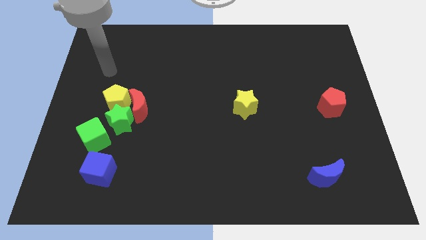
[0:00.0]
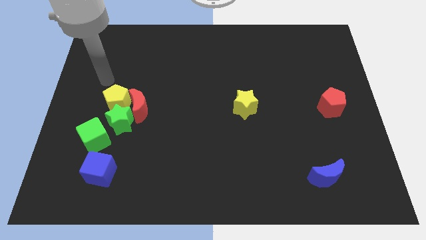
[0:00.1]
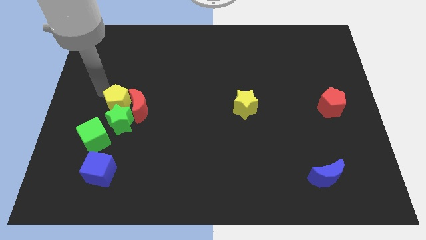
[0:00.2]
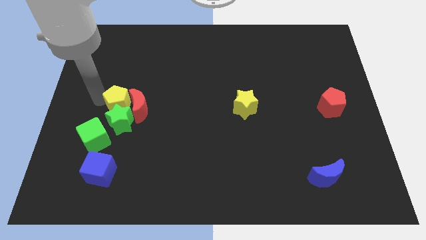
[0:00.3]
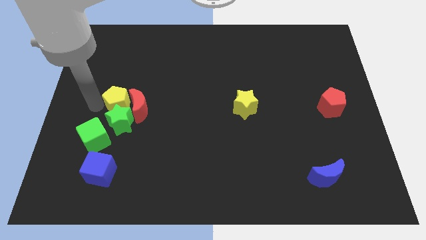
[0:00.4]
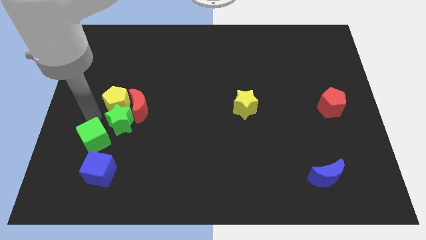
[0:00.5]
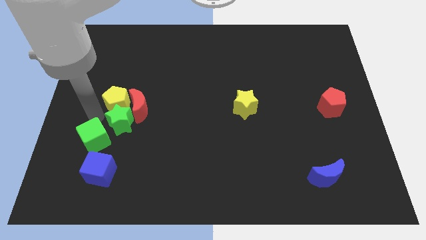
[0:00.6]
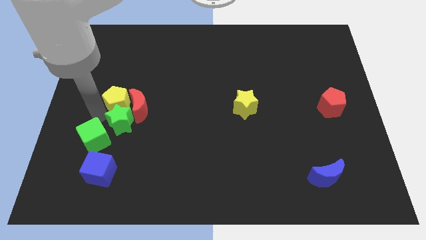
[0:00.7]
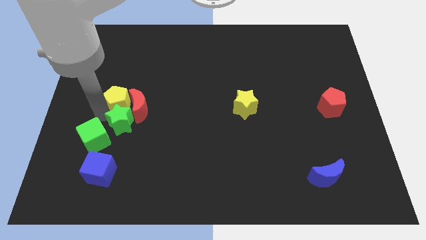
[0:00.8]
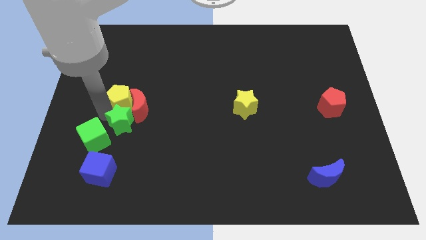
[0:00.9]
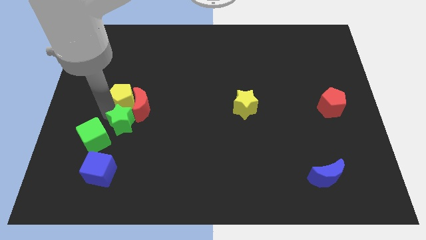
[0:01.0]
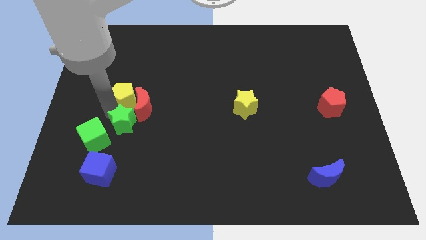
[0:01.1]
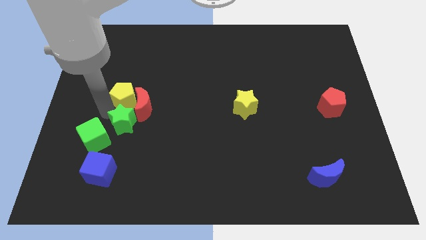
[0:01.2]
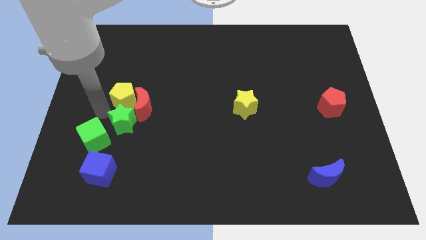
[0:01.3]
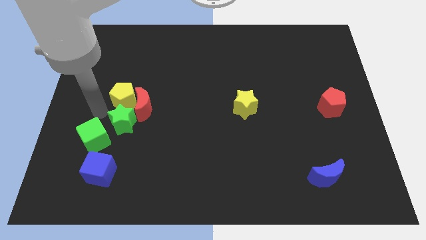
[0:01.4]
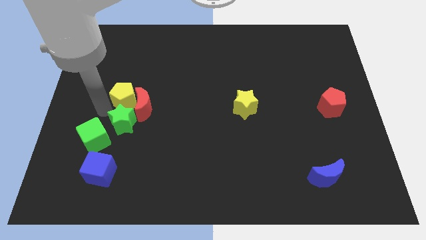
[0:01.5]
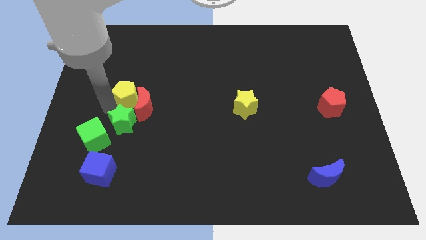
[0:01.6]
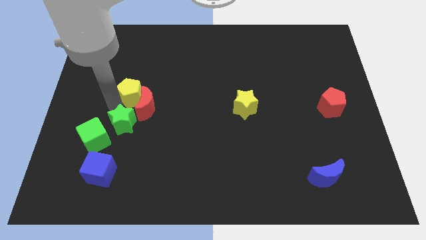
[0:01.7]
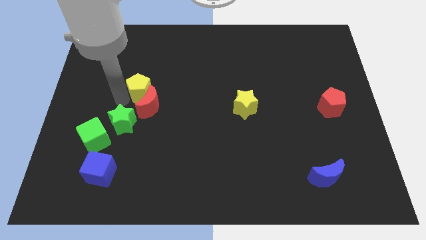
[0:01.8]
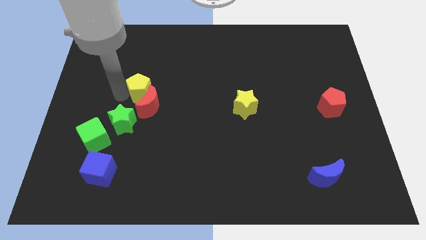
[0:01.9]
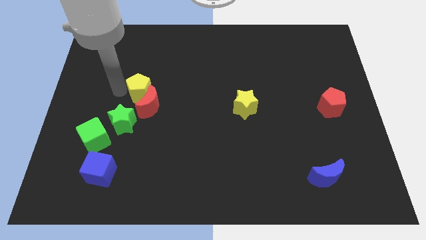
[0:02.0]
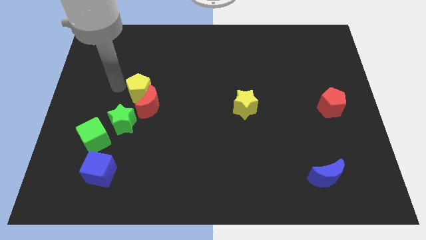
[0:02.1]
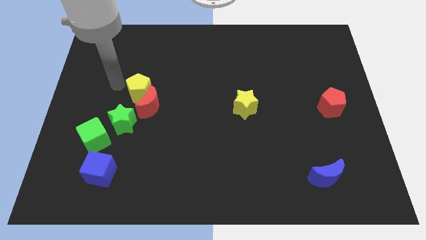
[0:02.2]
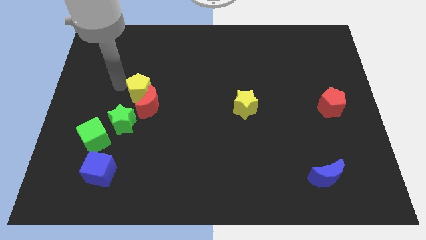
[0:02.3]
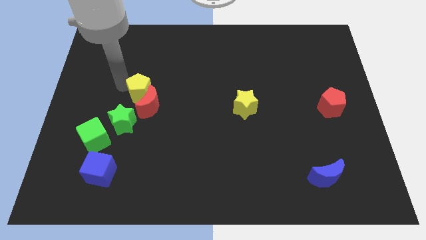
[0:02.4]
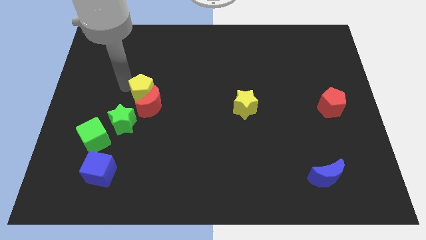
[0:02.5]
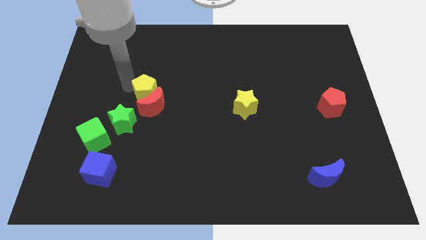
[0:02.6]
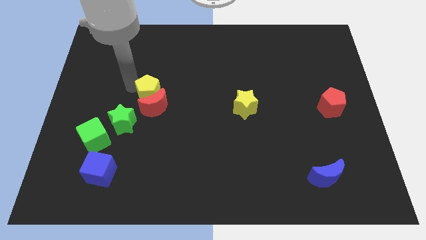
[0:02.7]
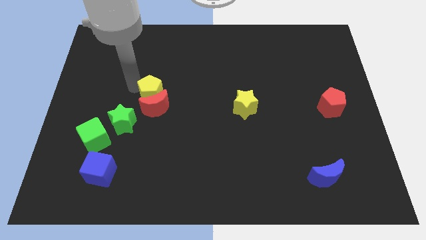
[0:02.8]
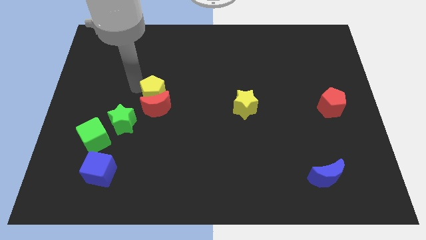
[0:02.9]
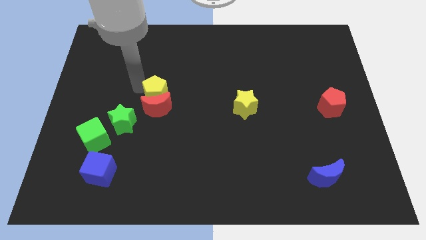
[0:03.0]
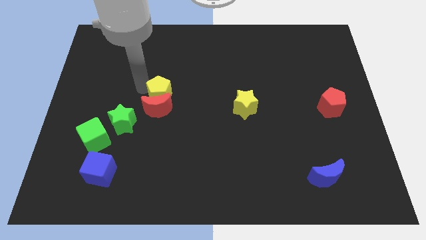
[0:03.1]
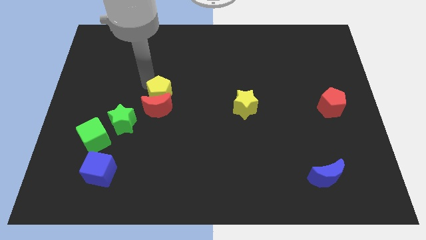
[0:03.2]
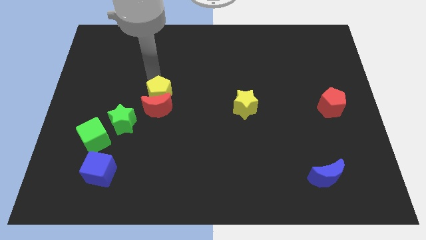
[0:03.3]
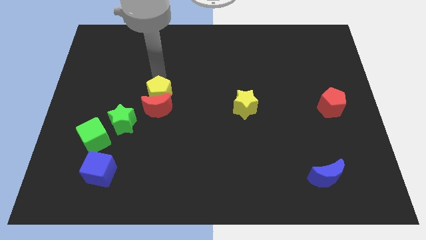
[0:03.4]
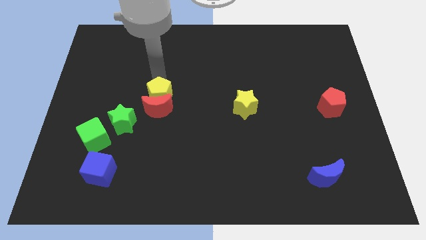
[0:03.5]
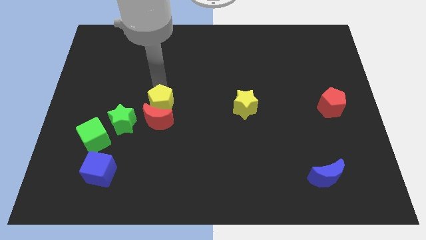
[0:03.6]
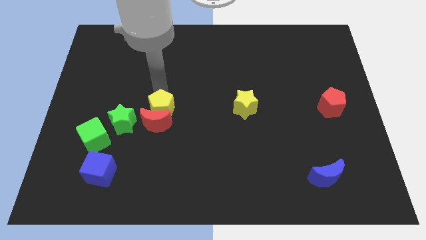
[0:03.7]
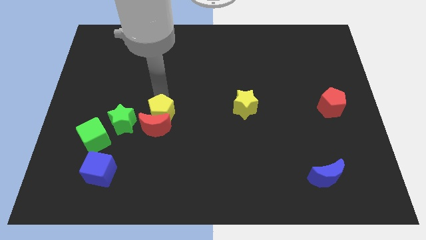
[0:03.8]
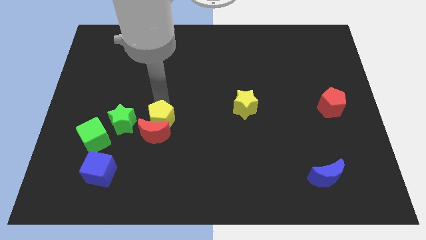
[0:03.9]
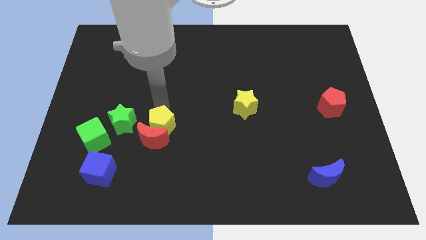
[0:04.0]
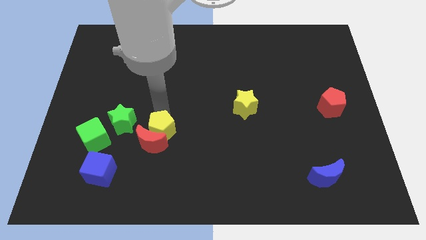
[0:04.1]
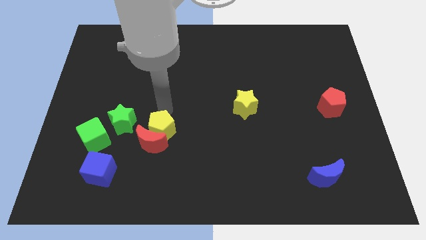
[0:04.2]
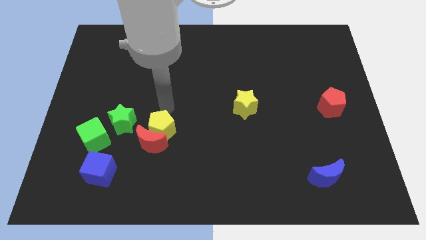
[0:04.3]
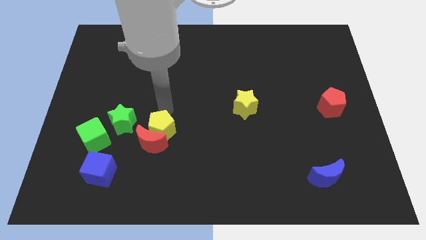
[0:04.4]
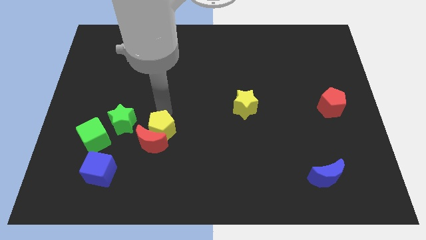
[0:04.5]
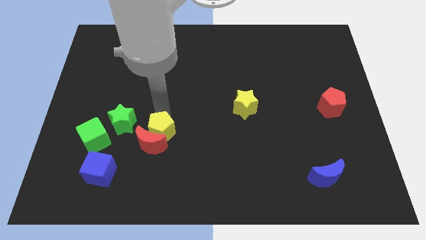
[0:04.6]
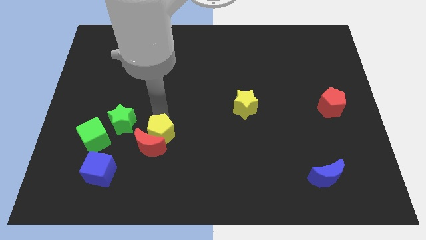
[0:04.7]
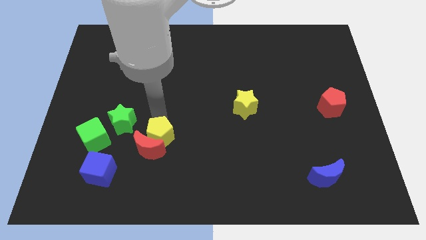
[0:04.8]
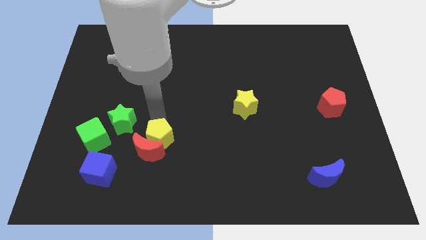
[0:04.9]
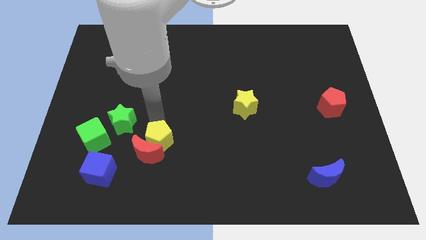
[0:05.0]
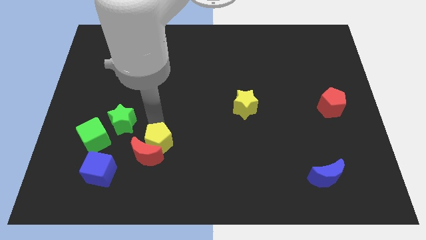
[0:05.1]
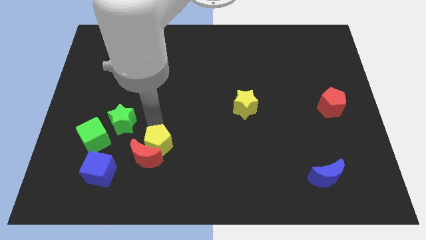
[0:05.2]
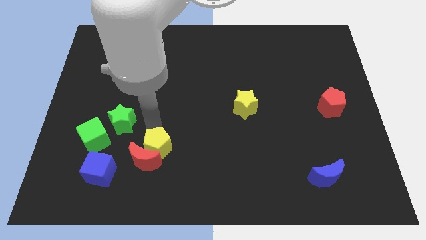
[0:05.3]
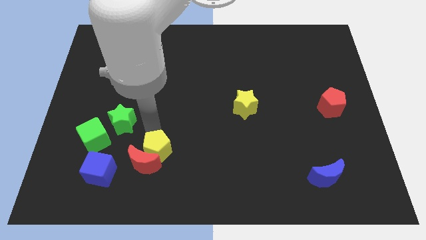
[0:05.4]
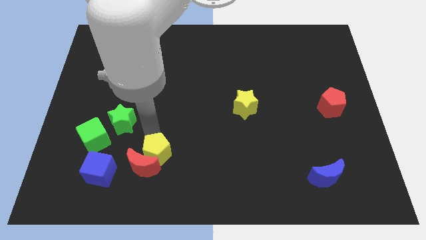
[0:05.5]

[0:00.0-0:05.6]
move the yellow pentagon to the right of the blue cube

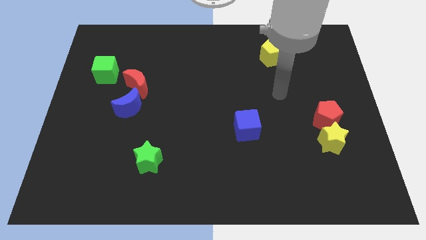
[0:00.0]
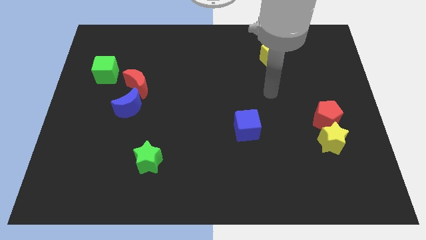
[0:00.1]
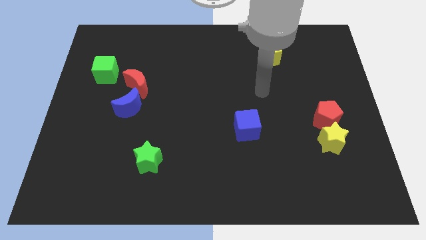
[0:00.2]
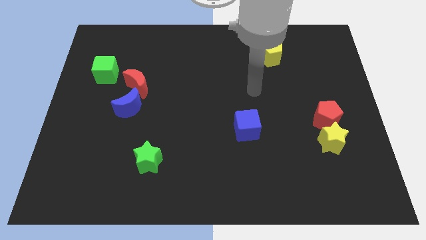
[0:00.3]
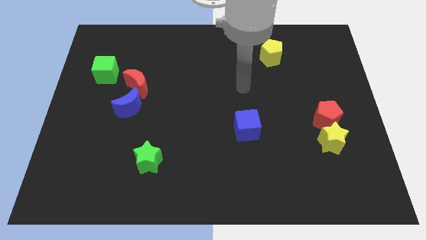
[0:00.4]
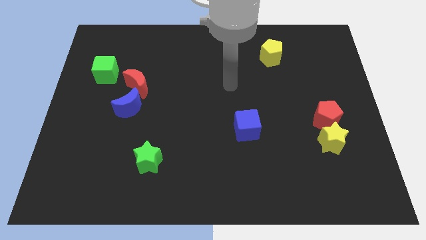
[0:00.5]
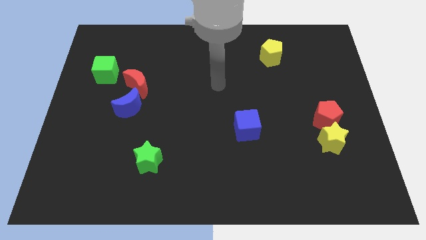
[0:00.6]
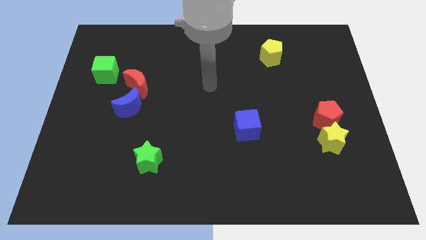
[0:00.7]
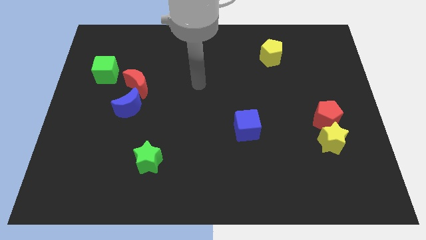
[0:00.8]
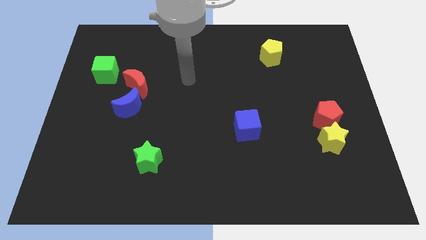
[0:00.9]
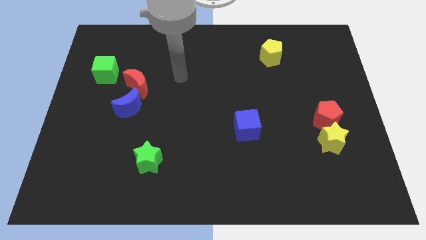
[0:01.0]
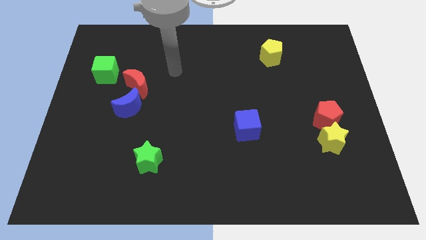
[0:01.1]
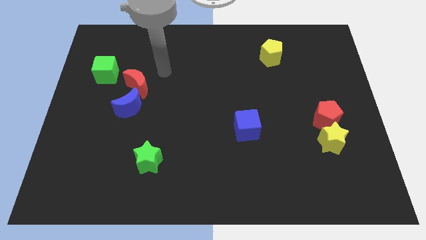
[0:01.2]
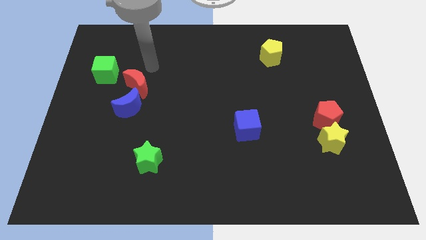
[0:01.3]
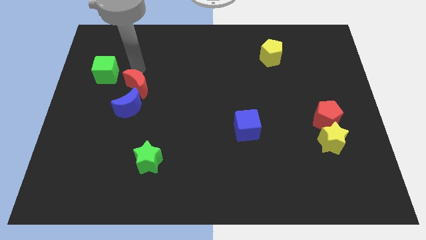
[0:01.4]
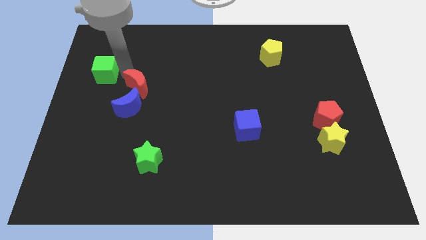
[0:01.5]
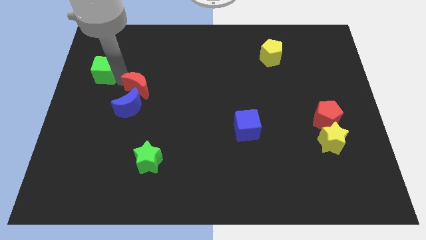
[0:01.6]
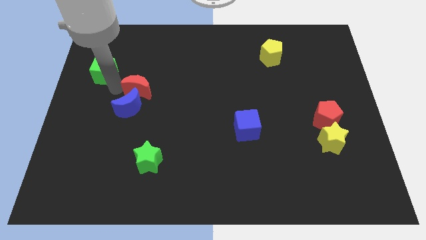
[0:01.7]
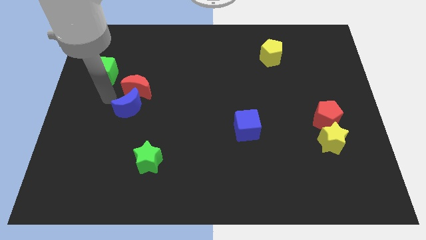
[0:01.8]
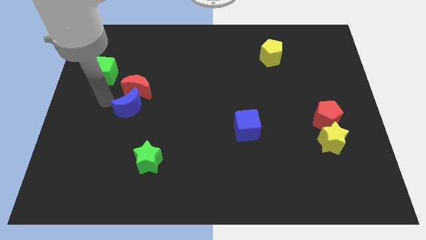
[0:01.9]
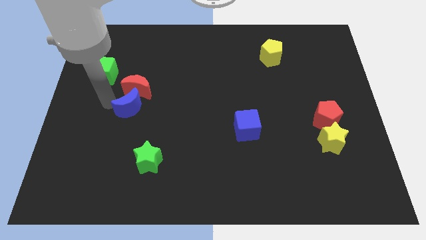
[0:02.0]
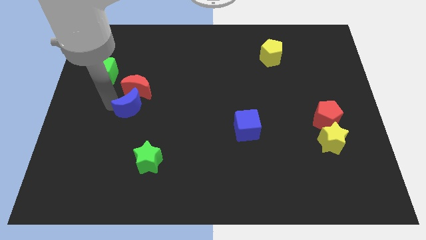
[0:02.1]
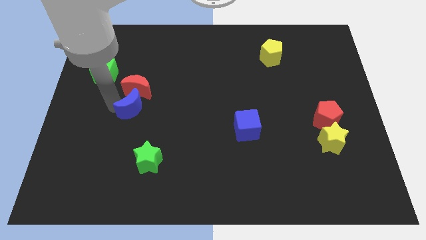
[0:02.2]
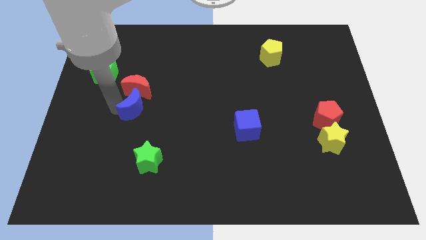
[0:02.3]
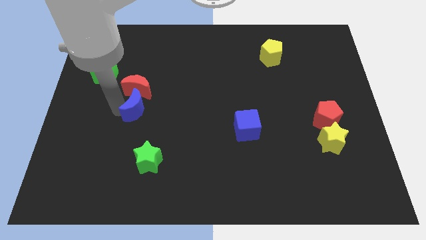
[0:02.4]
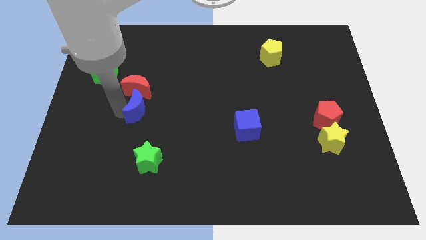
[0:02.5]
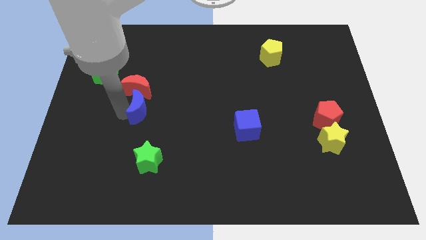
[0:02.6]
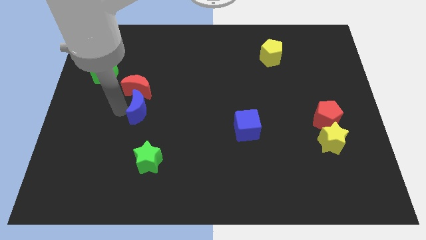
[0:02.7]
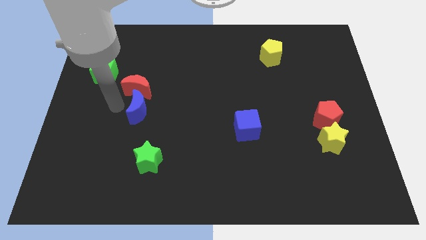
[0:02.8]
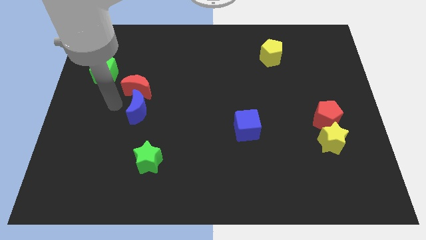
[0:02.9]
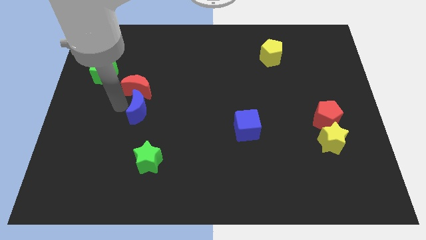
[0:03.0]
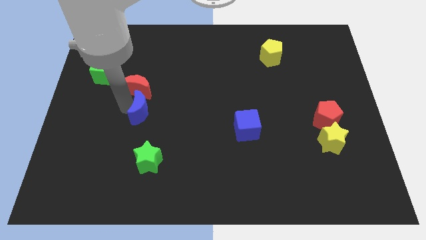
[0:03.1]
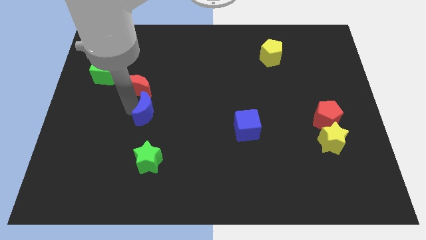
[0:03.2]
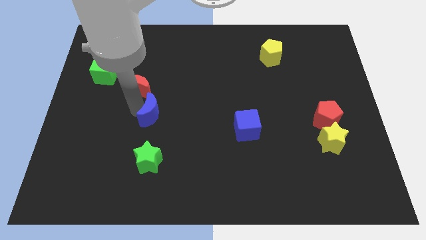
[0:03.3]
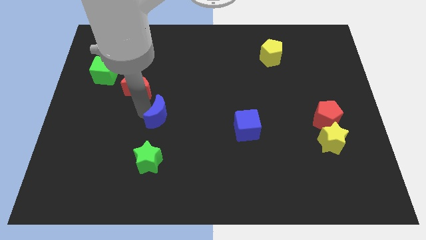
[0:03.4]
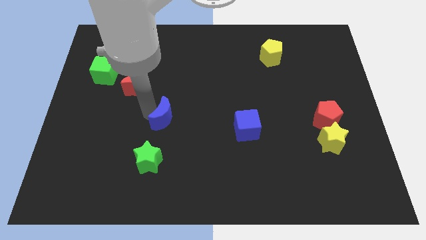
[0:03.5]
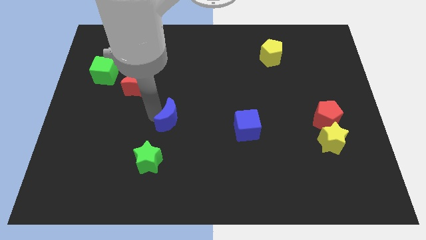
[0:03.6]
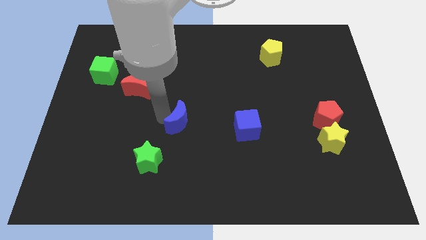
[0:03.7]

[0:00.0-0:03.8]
put the blue moon to the left side of the blue cube
